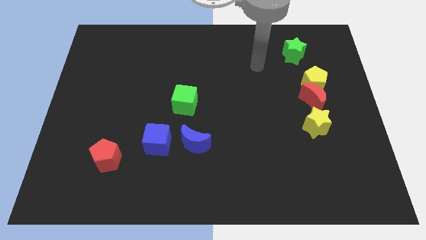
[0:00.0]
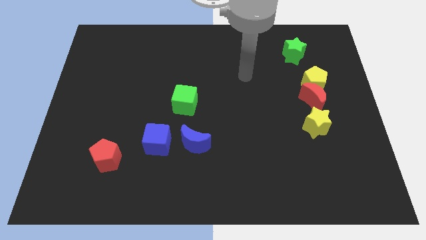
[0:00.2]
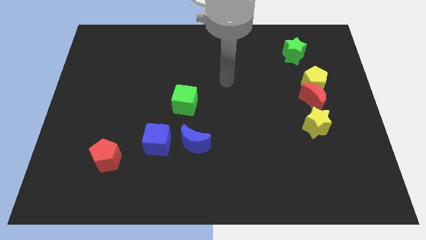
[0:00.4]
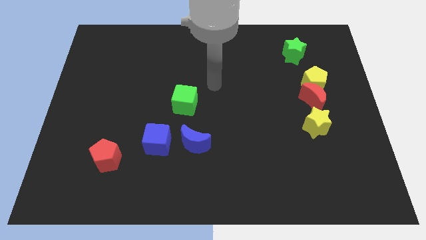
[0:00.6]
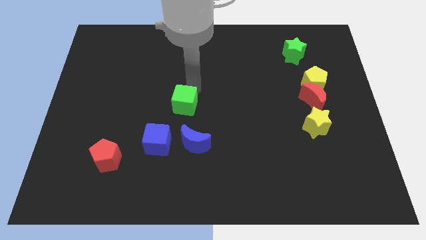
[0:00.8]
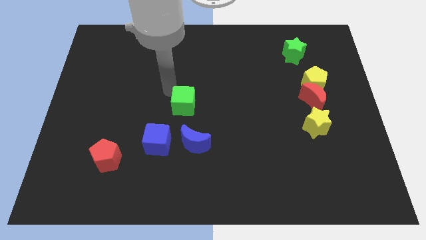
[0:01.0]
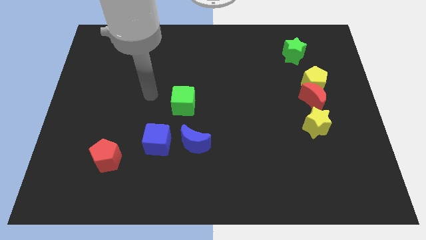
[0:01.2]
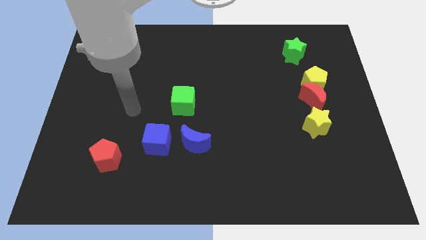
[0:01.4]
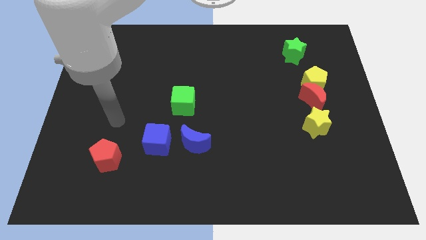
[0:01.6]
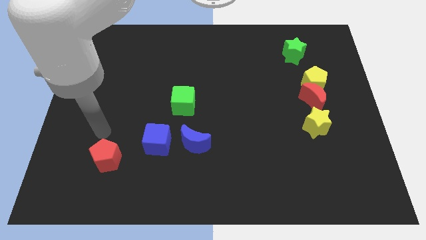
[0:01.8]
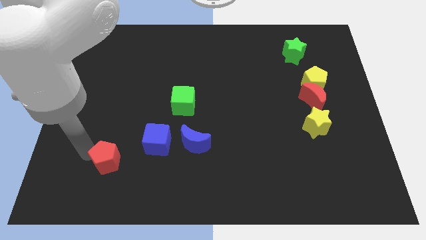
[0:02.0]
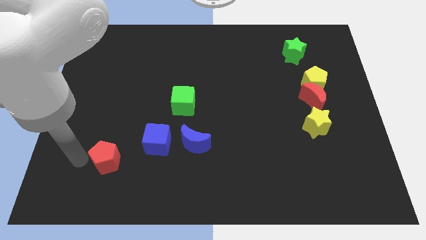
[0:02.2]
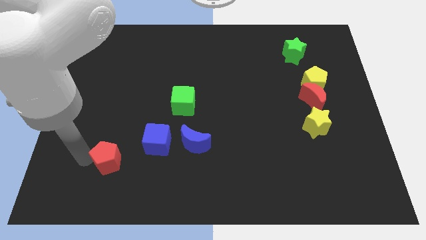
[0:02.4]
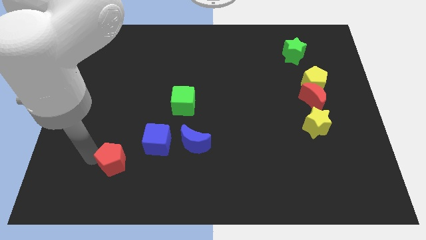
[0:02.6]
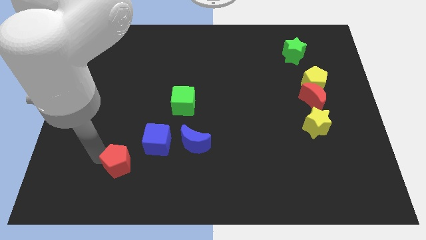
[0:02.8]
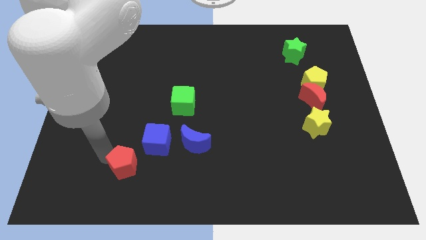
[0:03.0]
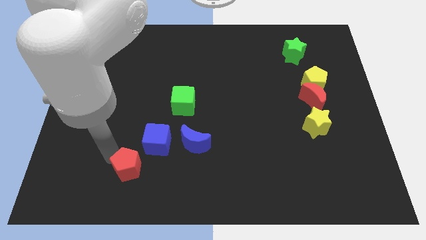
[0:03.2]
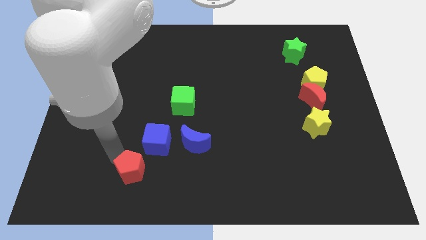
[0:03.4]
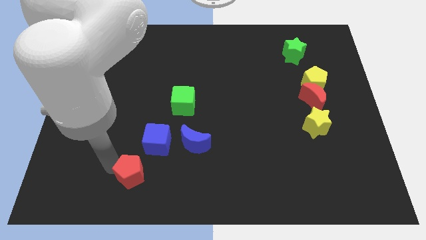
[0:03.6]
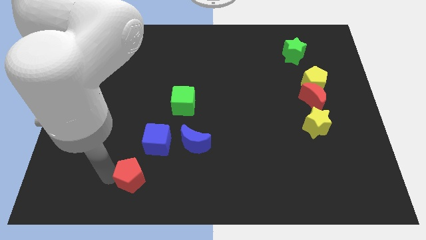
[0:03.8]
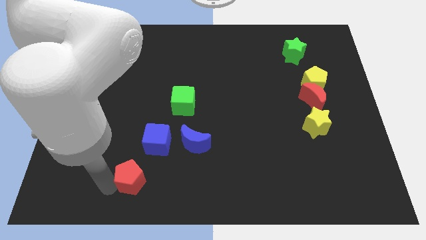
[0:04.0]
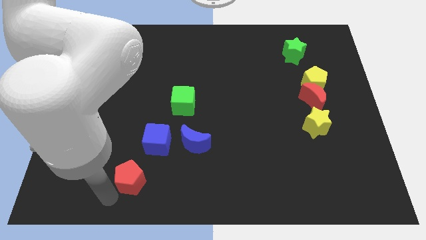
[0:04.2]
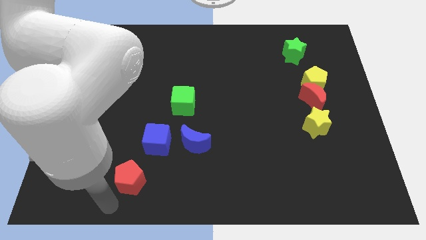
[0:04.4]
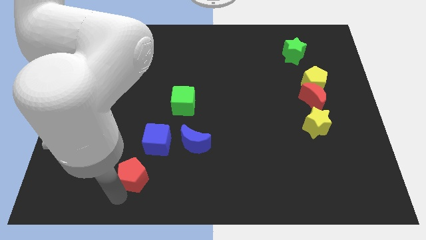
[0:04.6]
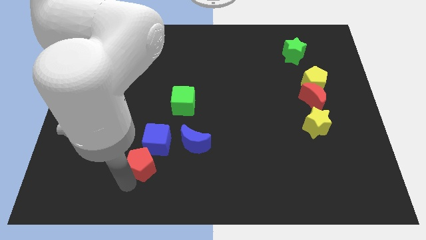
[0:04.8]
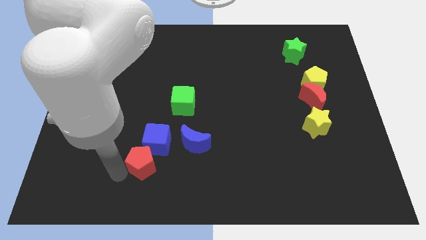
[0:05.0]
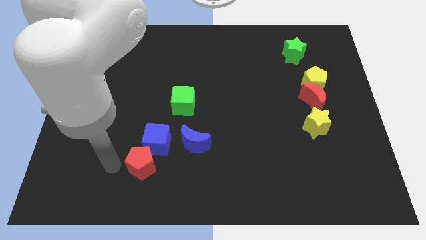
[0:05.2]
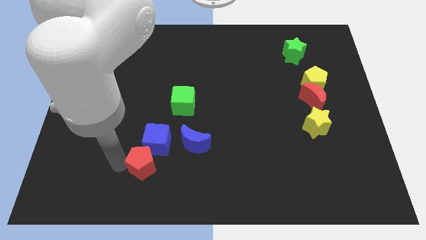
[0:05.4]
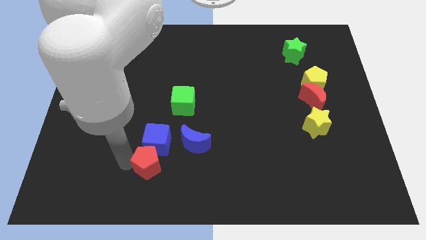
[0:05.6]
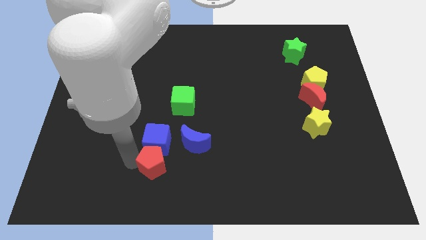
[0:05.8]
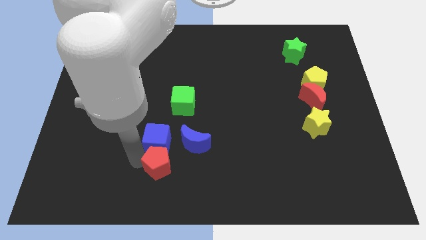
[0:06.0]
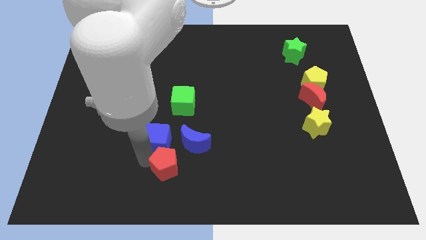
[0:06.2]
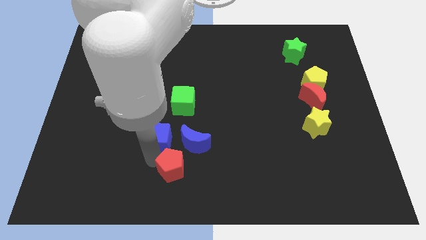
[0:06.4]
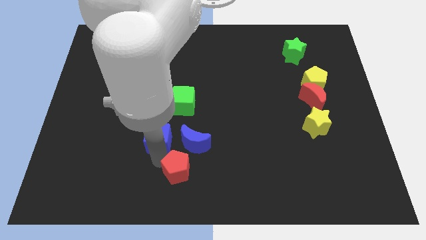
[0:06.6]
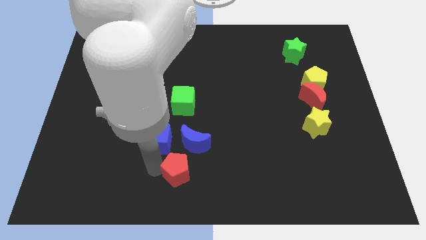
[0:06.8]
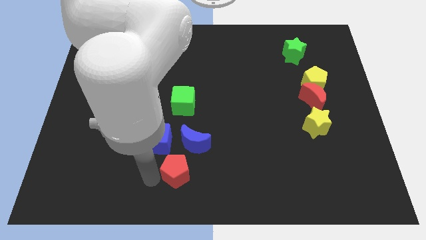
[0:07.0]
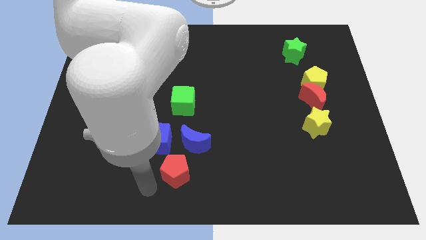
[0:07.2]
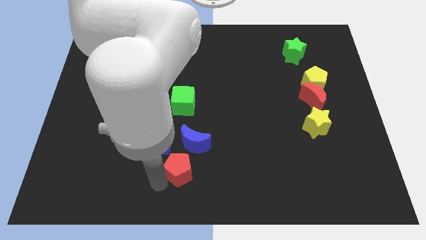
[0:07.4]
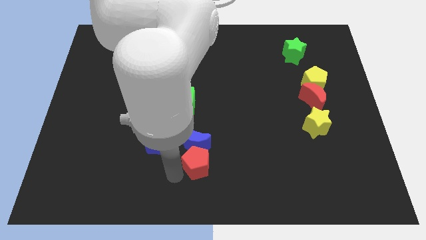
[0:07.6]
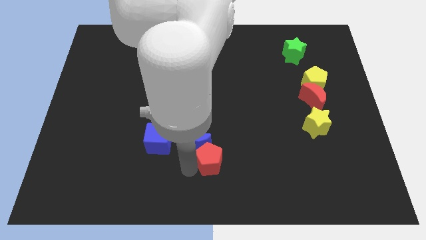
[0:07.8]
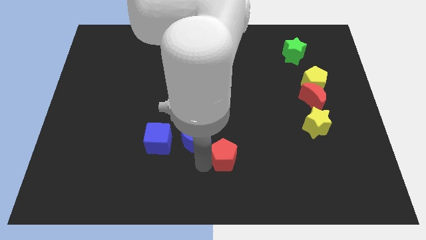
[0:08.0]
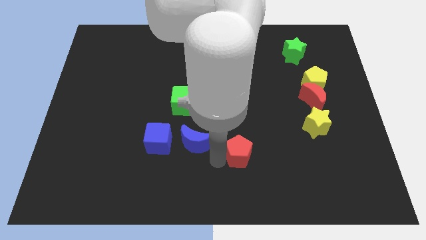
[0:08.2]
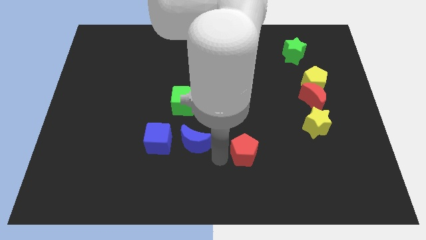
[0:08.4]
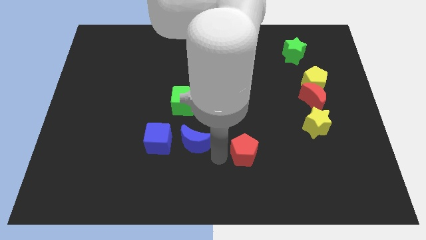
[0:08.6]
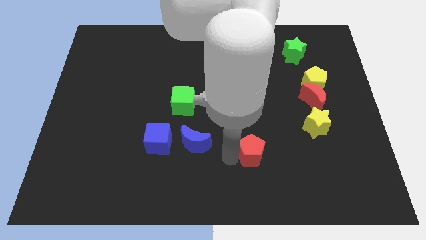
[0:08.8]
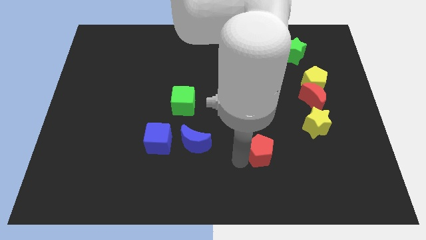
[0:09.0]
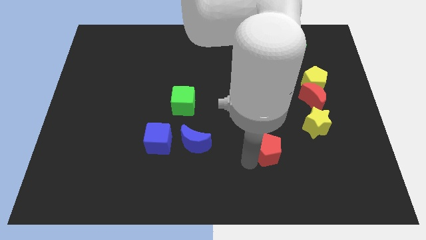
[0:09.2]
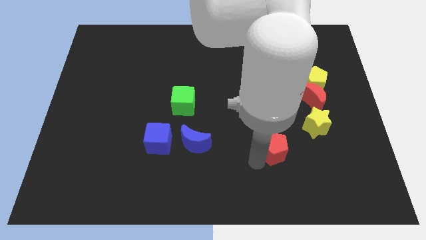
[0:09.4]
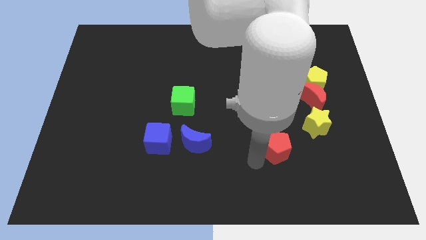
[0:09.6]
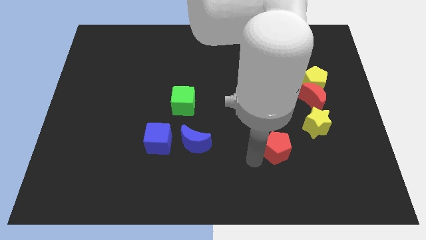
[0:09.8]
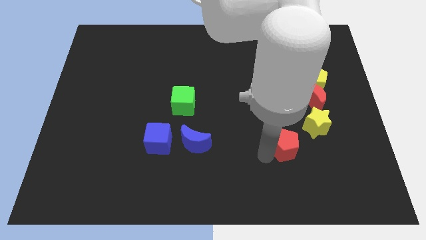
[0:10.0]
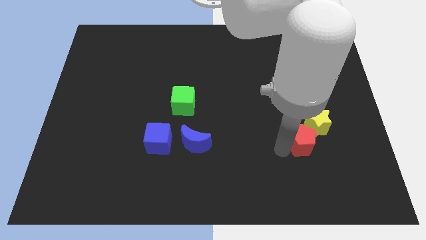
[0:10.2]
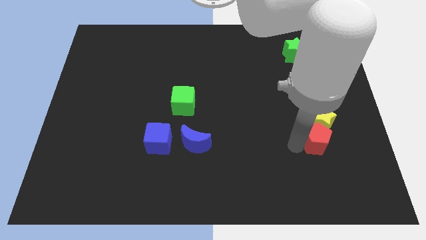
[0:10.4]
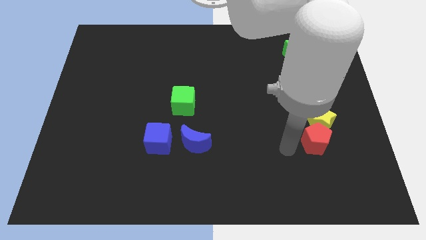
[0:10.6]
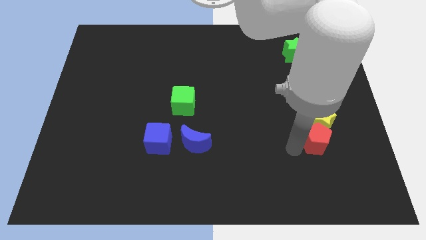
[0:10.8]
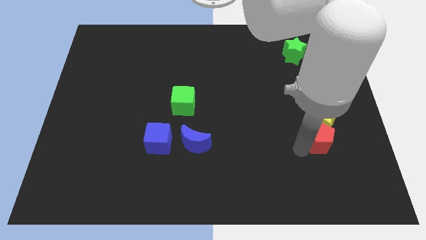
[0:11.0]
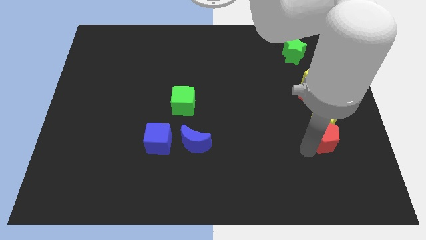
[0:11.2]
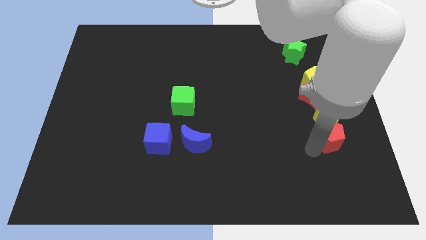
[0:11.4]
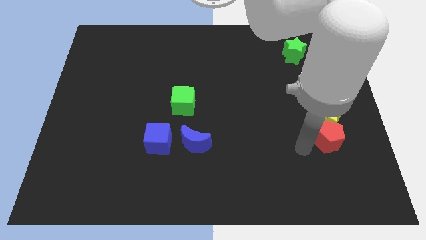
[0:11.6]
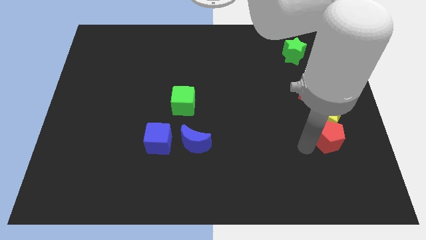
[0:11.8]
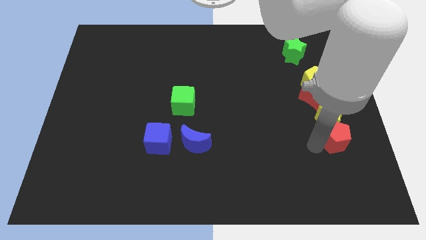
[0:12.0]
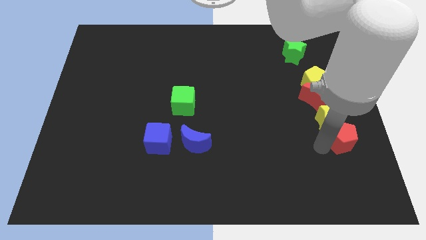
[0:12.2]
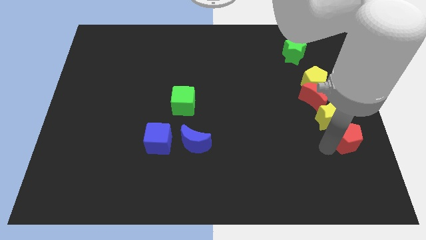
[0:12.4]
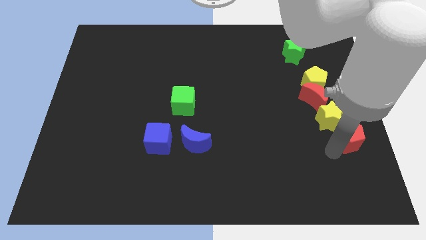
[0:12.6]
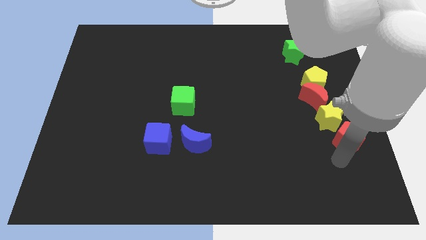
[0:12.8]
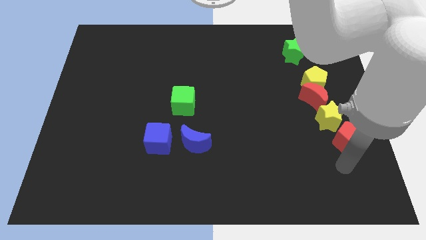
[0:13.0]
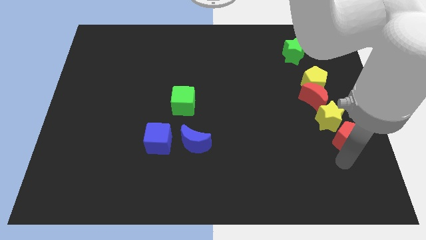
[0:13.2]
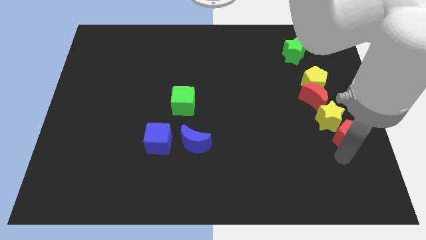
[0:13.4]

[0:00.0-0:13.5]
slide the red pentagon to the center right

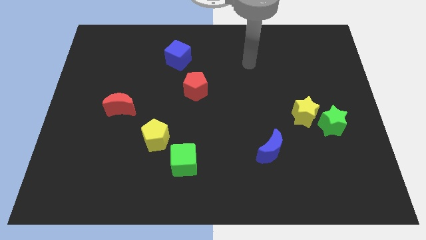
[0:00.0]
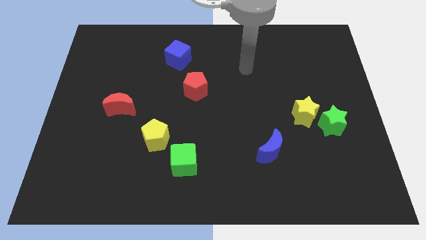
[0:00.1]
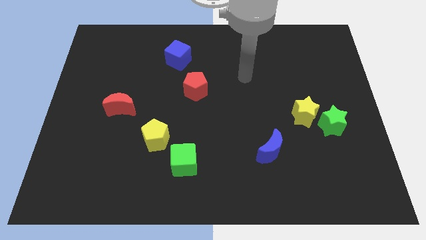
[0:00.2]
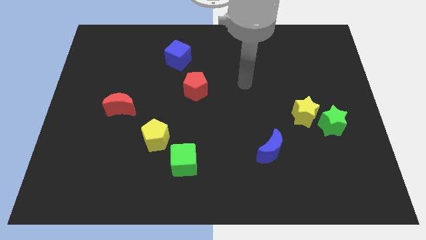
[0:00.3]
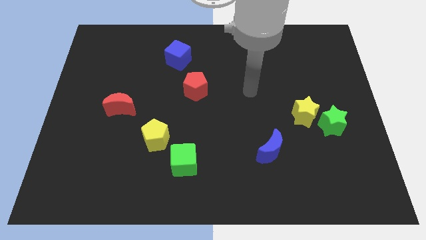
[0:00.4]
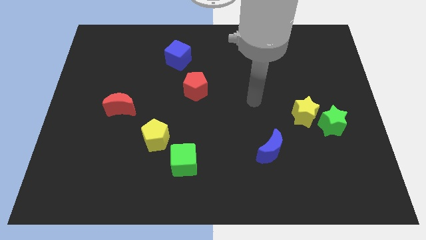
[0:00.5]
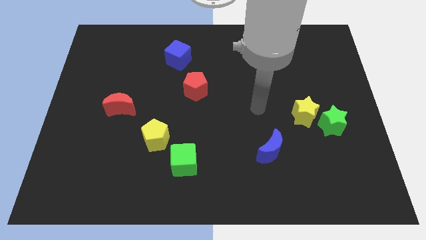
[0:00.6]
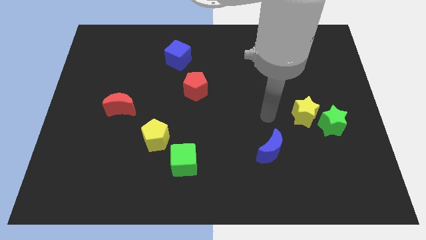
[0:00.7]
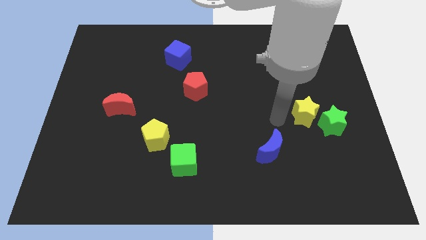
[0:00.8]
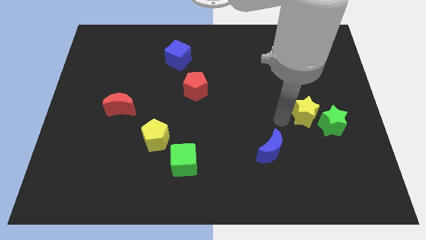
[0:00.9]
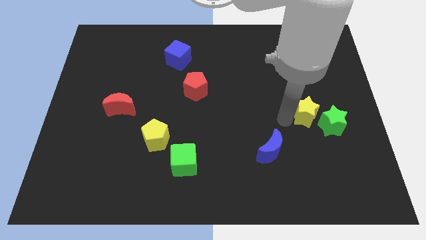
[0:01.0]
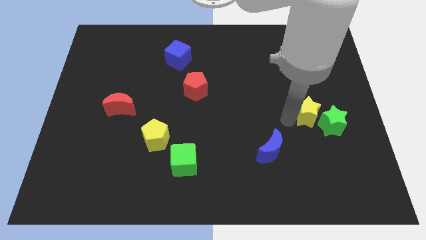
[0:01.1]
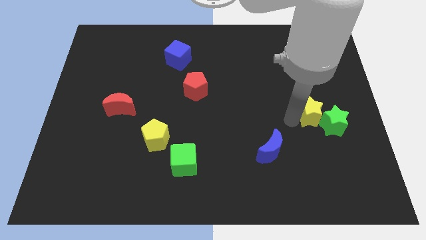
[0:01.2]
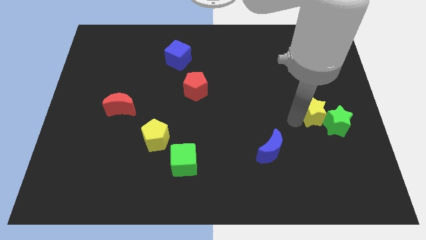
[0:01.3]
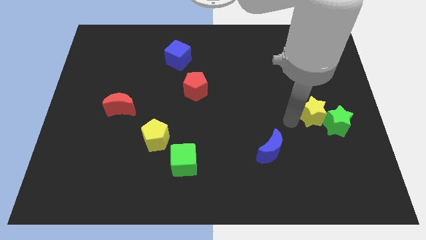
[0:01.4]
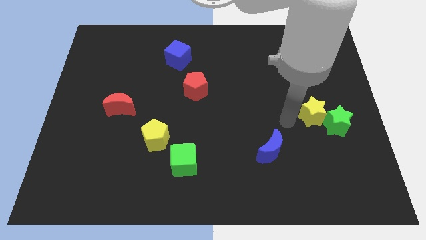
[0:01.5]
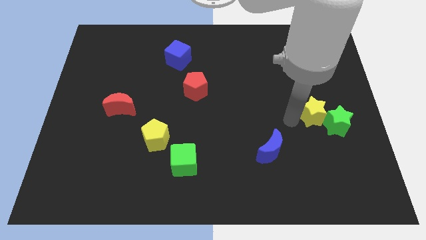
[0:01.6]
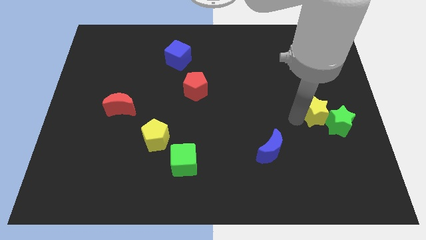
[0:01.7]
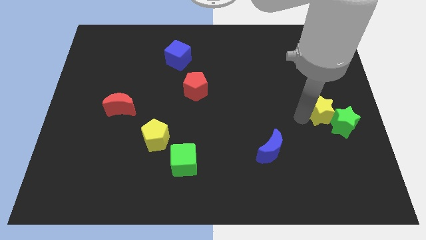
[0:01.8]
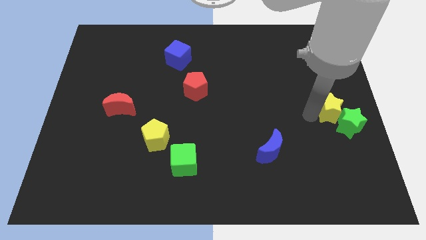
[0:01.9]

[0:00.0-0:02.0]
move the yellow star to the right side of the board
